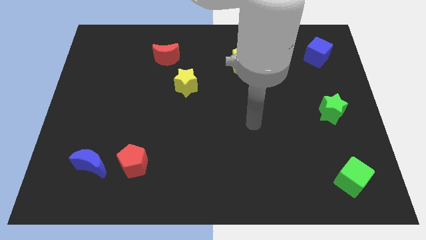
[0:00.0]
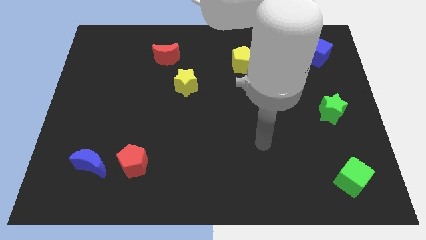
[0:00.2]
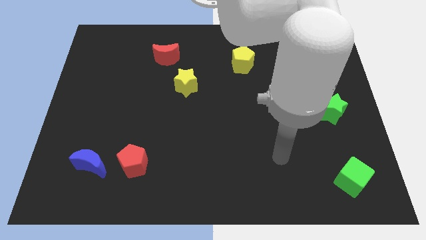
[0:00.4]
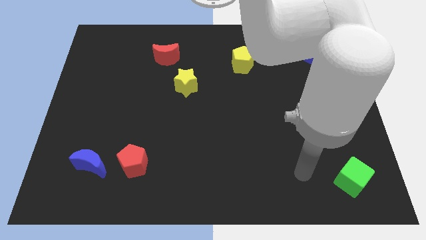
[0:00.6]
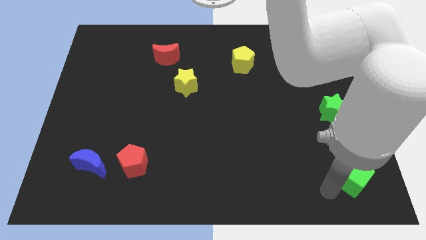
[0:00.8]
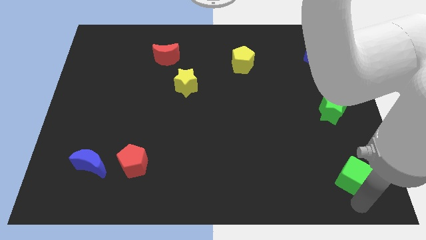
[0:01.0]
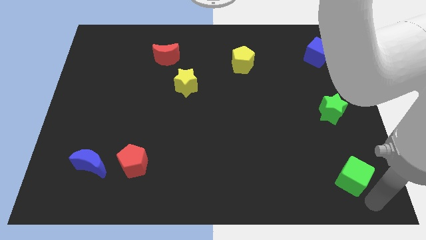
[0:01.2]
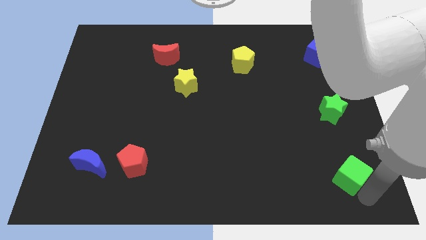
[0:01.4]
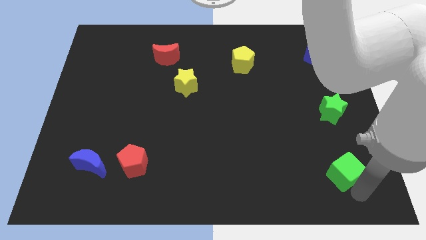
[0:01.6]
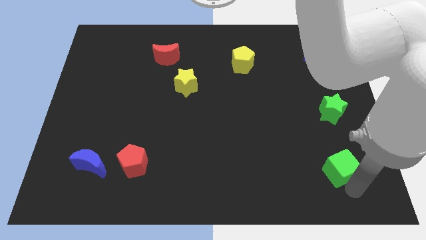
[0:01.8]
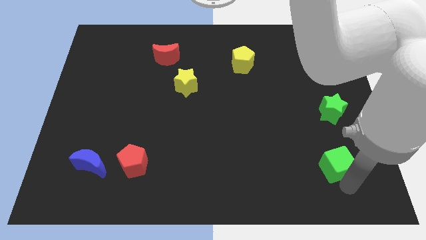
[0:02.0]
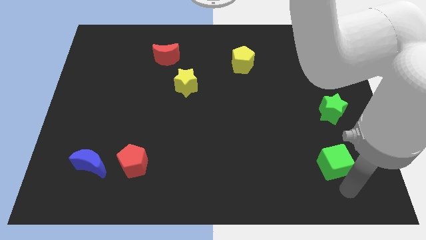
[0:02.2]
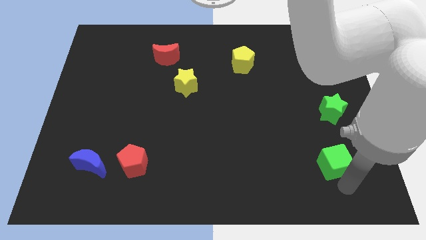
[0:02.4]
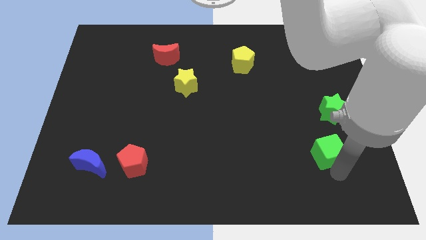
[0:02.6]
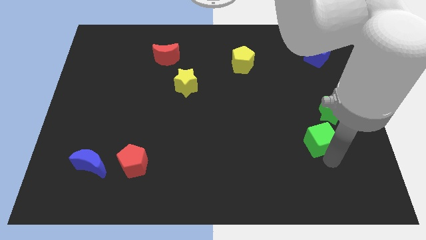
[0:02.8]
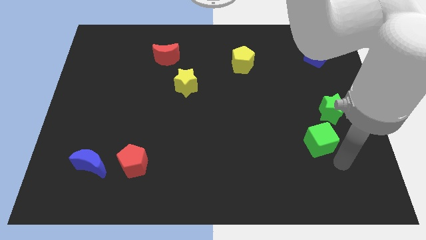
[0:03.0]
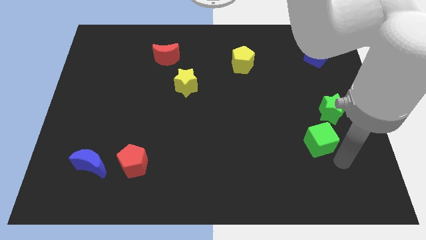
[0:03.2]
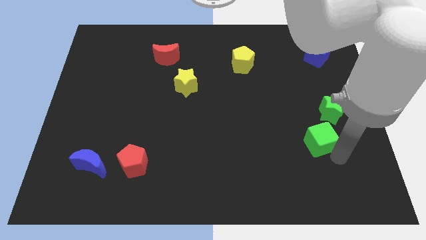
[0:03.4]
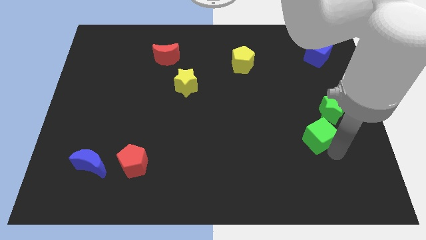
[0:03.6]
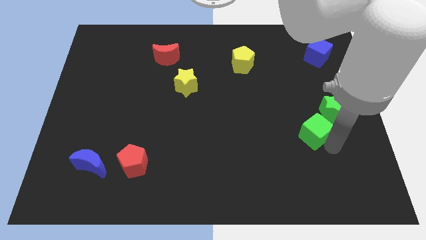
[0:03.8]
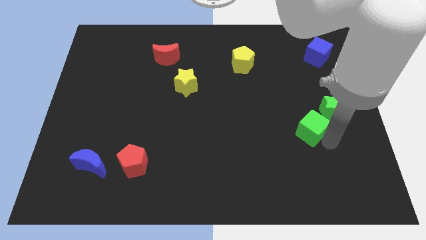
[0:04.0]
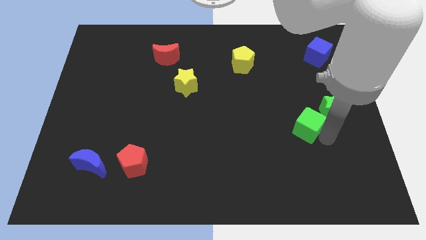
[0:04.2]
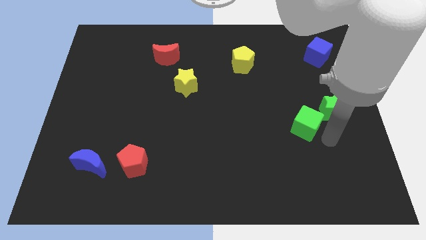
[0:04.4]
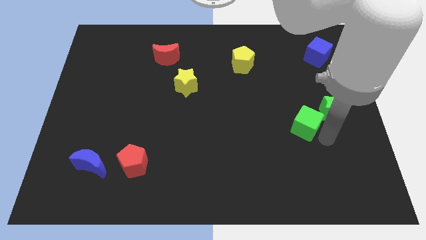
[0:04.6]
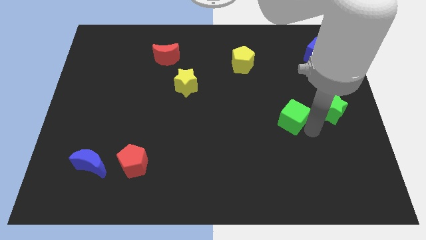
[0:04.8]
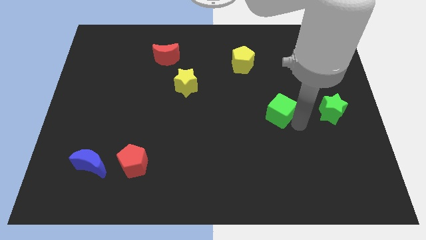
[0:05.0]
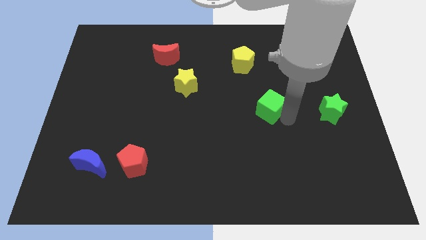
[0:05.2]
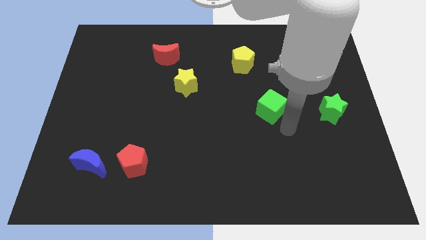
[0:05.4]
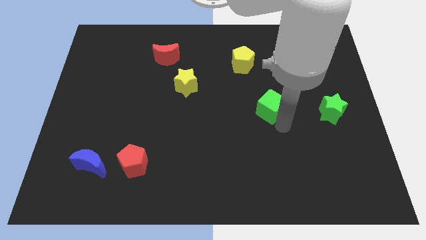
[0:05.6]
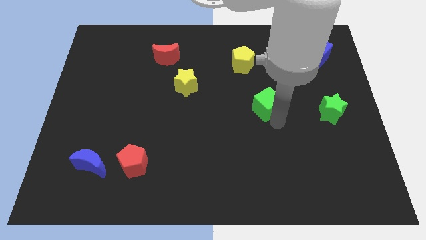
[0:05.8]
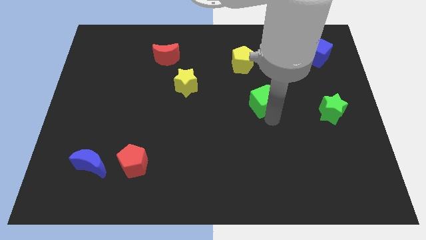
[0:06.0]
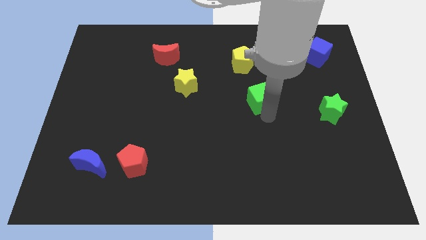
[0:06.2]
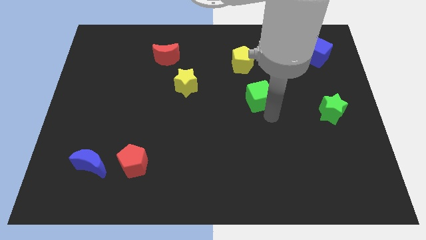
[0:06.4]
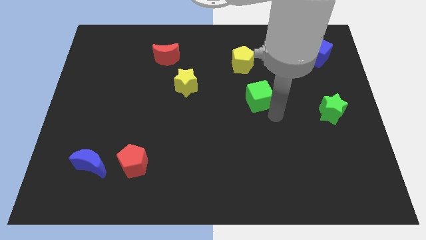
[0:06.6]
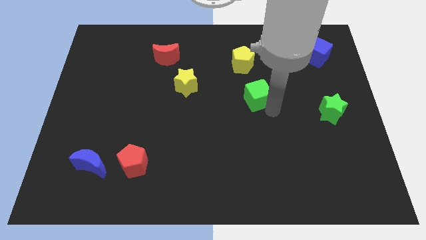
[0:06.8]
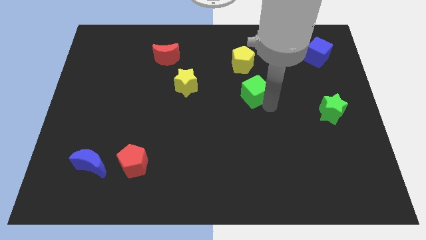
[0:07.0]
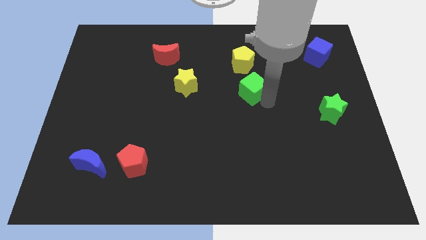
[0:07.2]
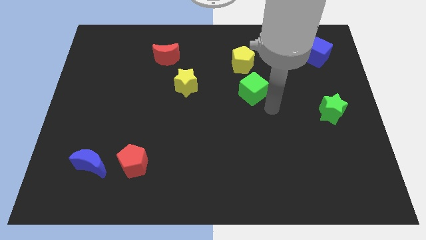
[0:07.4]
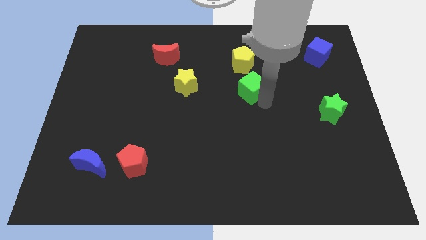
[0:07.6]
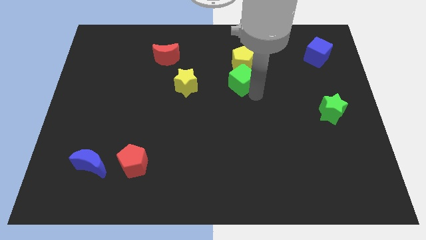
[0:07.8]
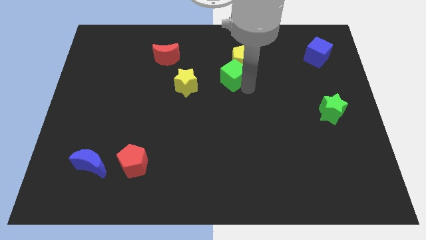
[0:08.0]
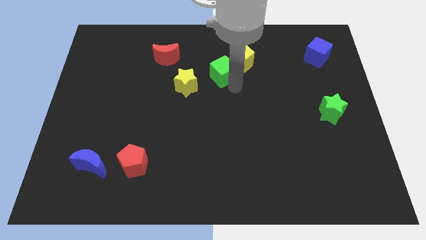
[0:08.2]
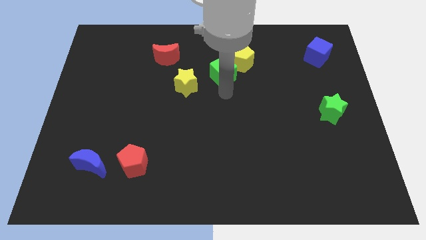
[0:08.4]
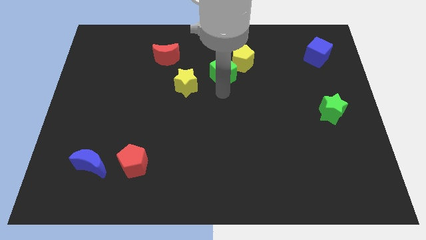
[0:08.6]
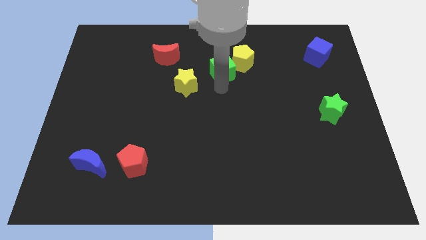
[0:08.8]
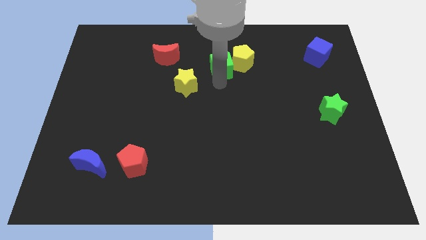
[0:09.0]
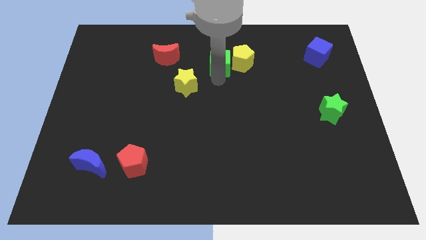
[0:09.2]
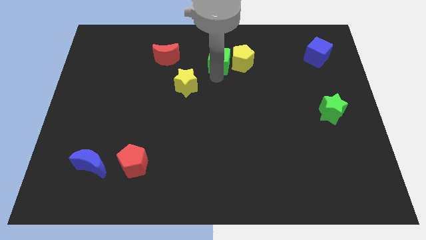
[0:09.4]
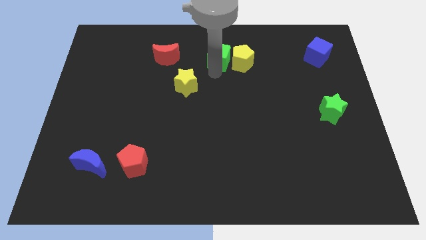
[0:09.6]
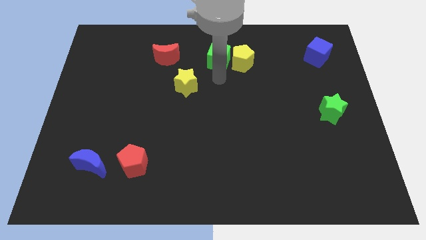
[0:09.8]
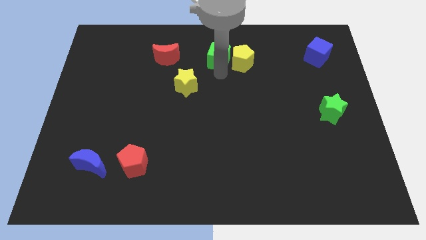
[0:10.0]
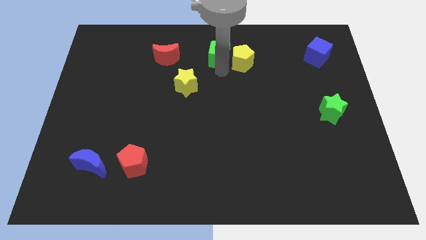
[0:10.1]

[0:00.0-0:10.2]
slide the green cube to the top side
